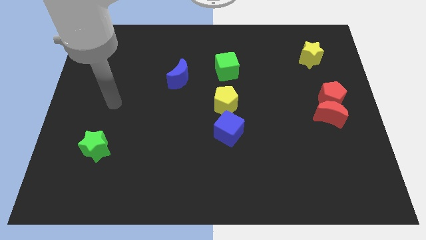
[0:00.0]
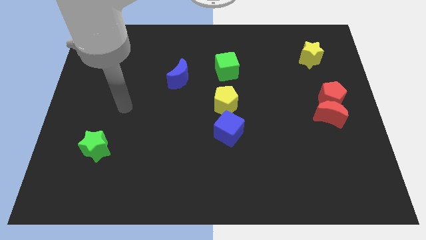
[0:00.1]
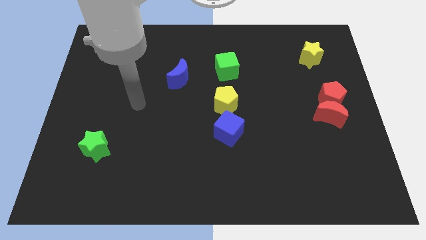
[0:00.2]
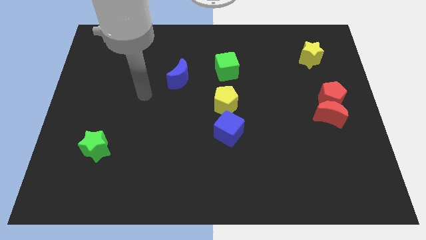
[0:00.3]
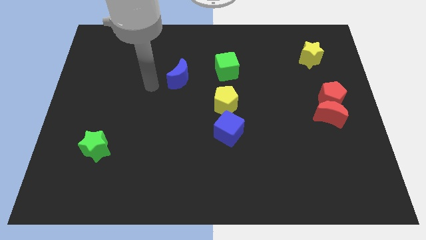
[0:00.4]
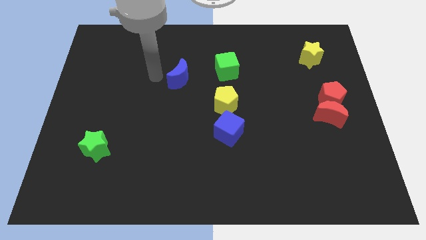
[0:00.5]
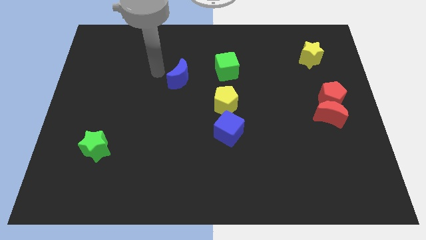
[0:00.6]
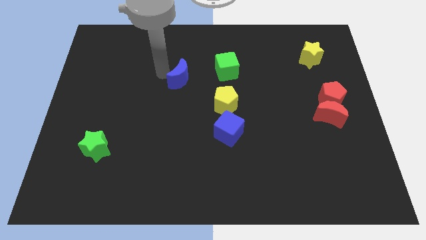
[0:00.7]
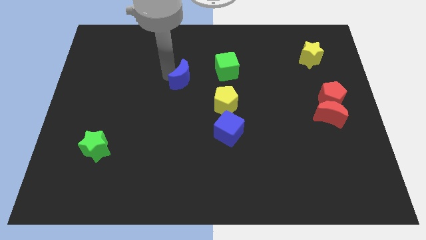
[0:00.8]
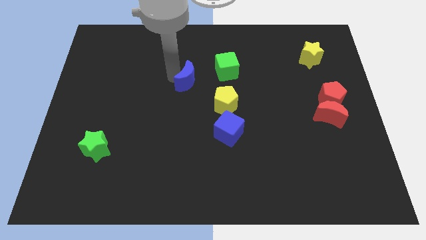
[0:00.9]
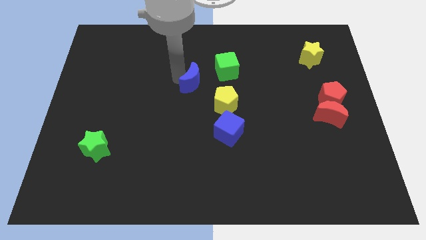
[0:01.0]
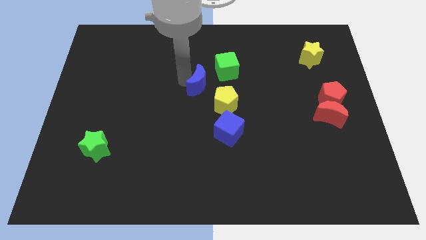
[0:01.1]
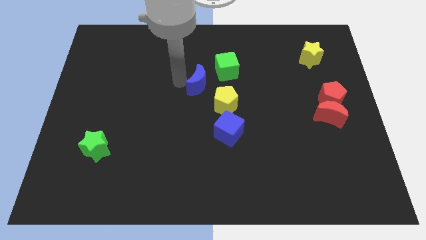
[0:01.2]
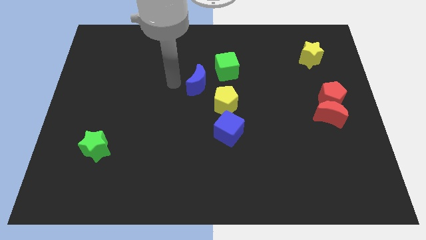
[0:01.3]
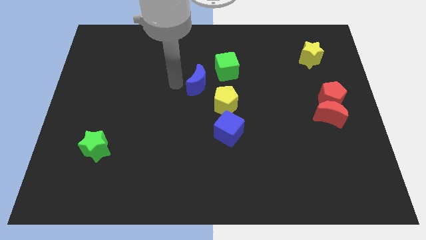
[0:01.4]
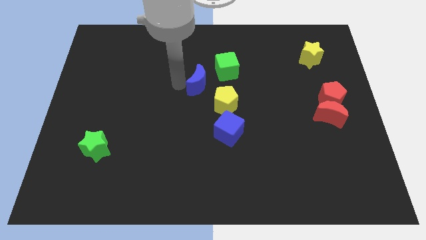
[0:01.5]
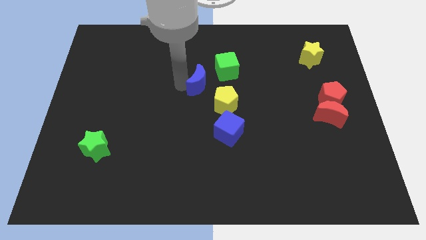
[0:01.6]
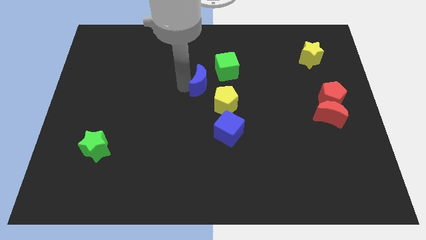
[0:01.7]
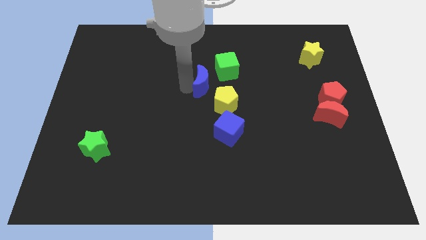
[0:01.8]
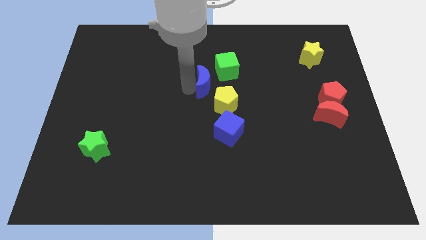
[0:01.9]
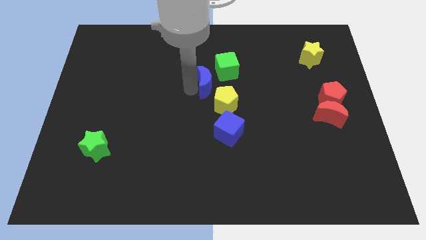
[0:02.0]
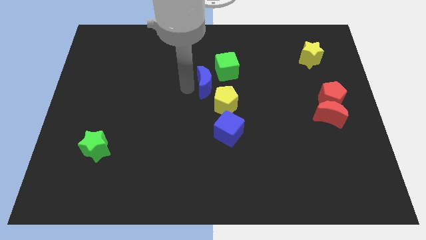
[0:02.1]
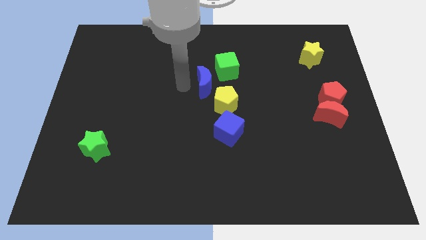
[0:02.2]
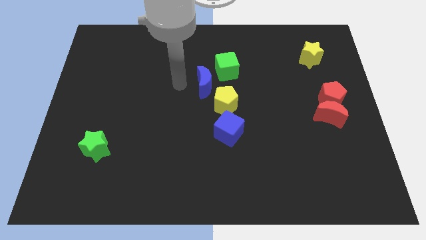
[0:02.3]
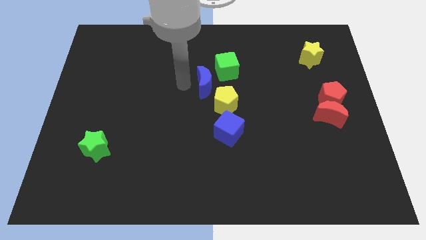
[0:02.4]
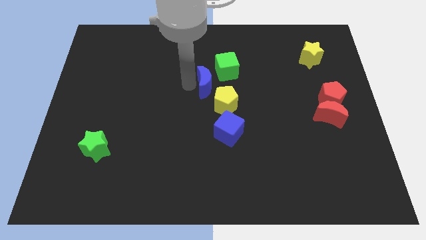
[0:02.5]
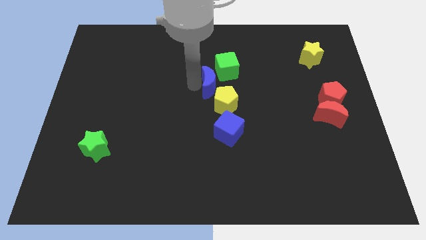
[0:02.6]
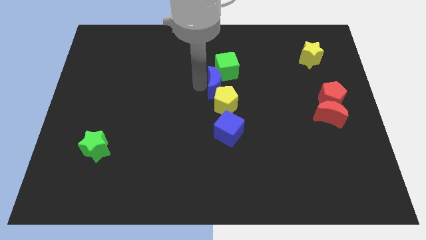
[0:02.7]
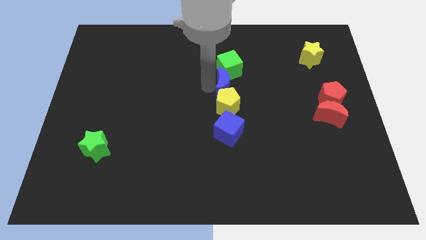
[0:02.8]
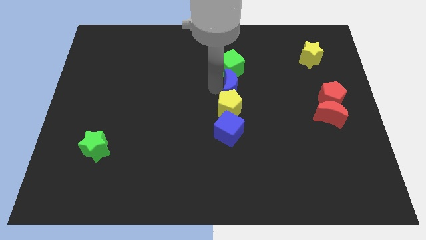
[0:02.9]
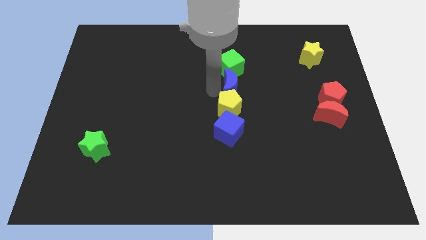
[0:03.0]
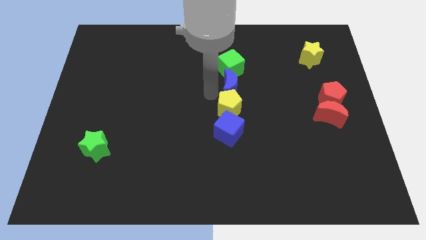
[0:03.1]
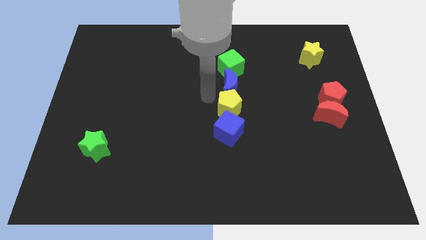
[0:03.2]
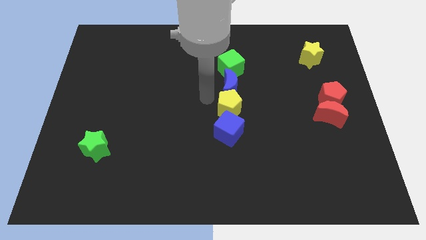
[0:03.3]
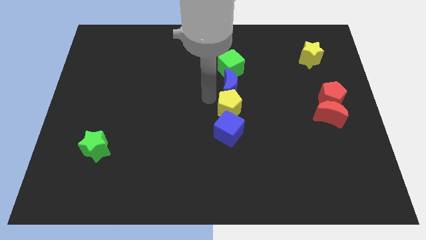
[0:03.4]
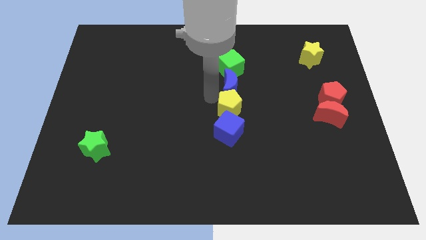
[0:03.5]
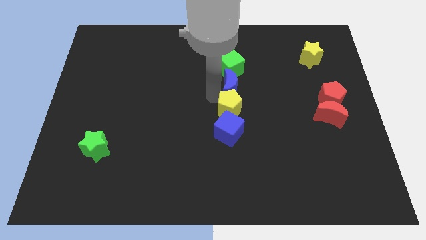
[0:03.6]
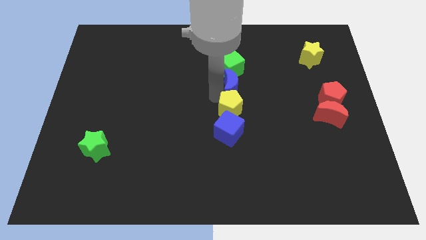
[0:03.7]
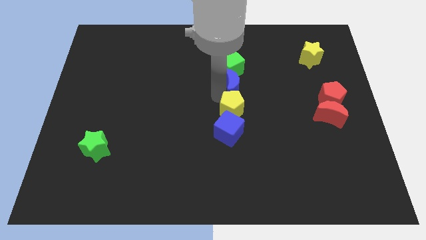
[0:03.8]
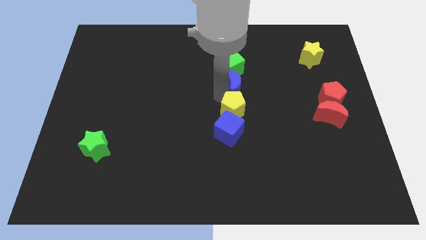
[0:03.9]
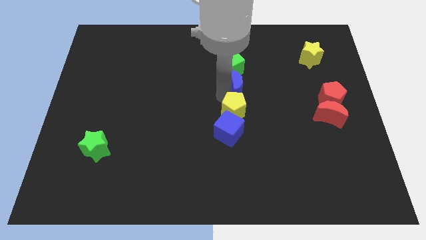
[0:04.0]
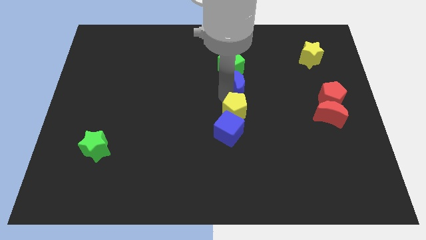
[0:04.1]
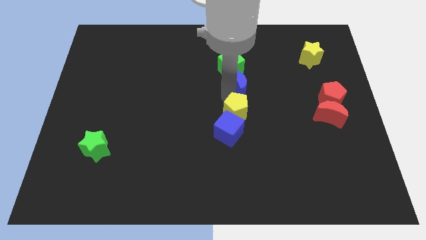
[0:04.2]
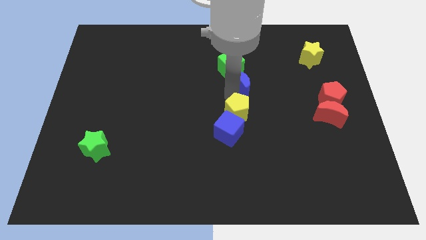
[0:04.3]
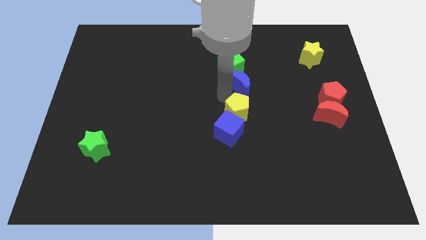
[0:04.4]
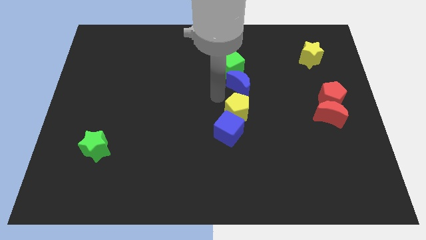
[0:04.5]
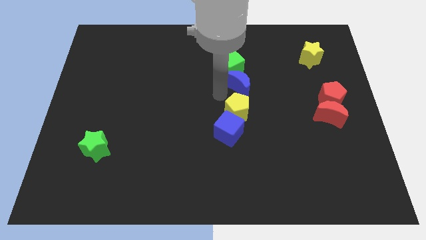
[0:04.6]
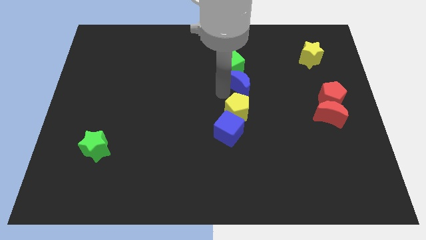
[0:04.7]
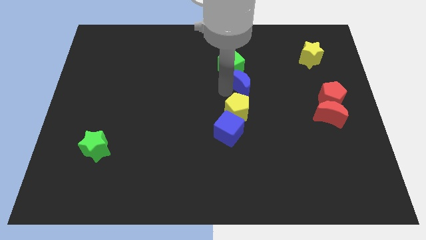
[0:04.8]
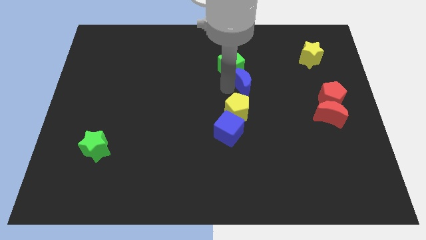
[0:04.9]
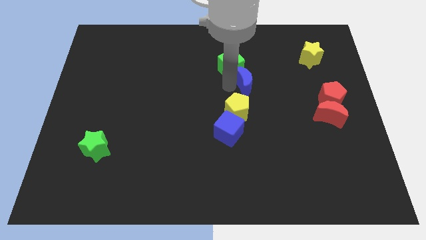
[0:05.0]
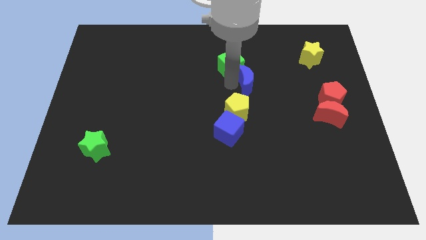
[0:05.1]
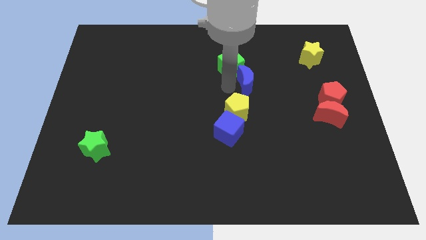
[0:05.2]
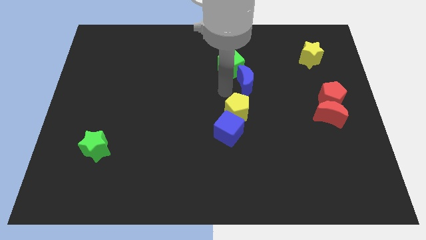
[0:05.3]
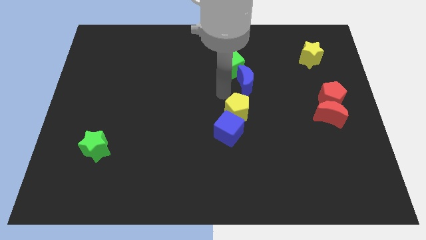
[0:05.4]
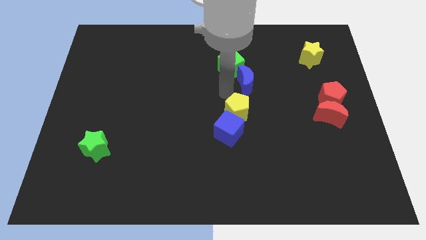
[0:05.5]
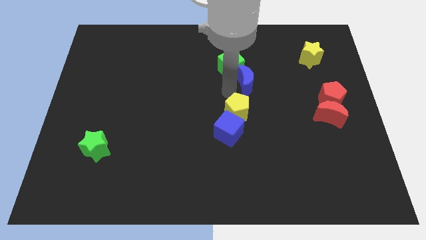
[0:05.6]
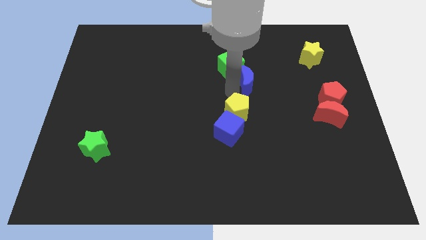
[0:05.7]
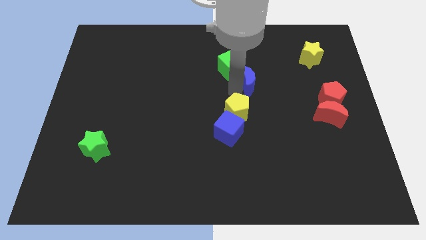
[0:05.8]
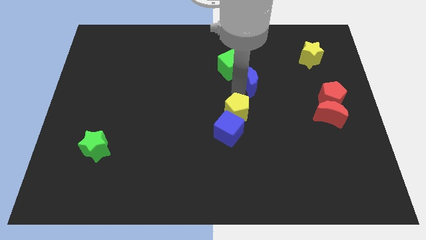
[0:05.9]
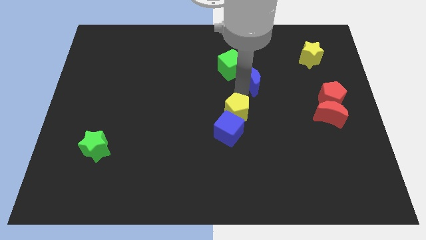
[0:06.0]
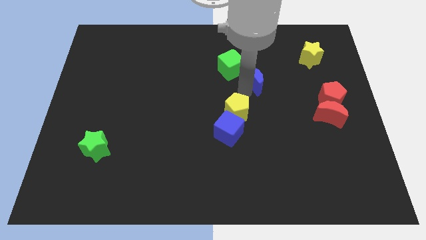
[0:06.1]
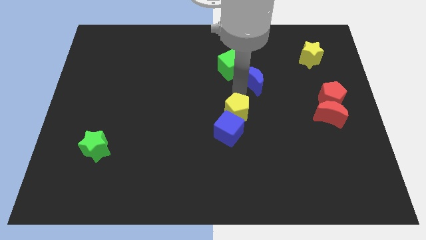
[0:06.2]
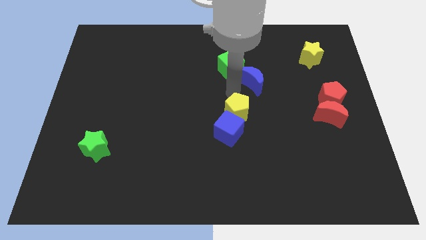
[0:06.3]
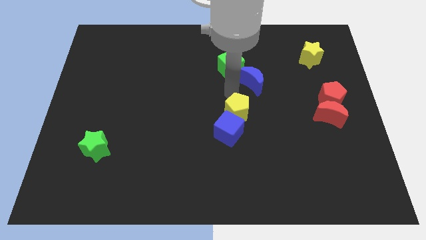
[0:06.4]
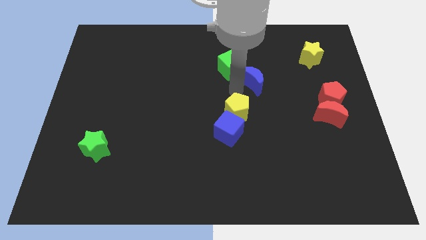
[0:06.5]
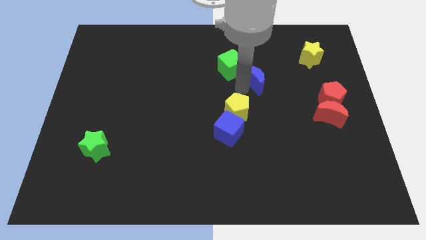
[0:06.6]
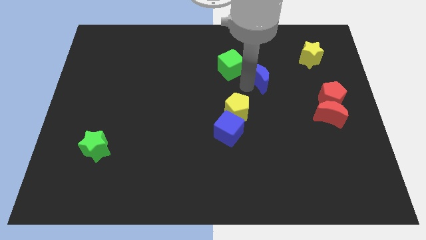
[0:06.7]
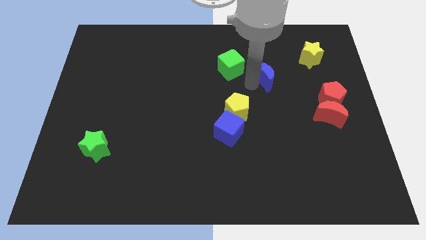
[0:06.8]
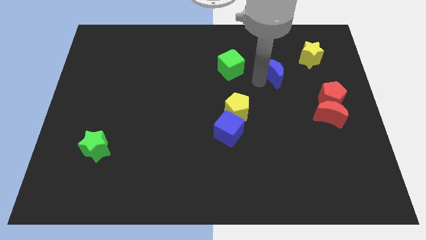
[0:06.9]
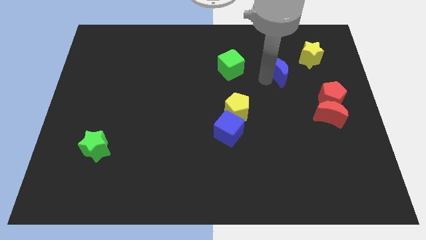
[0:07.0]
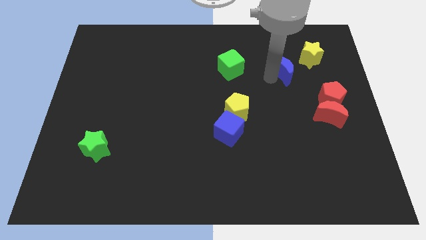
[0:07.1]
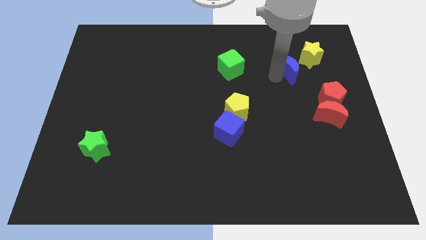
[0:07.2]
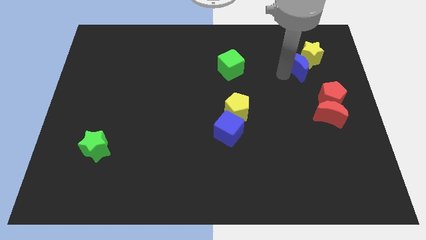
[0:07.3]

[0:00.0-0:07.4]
put the blue moon towards the yellow star

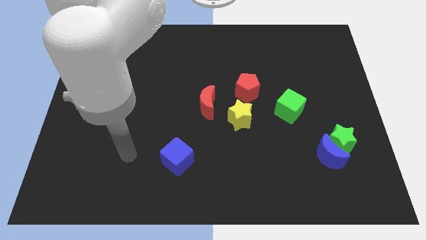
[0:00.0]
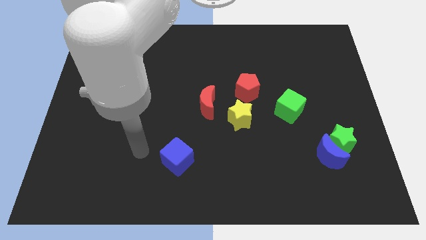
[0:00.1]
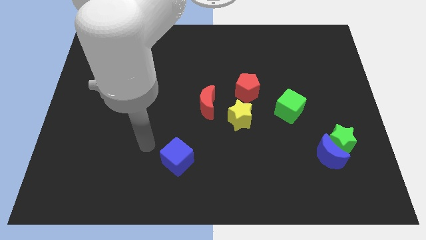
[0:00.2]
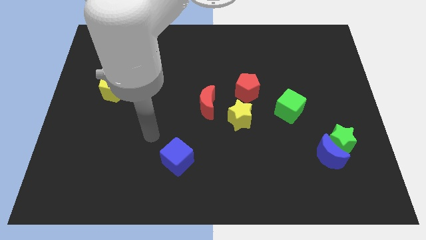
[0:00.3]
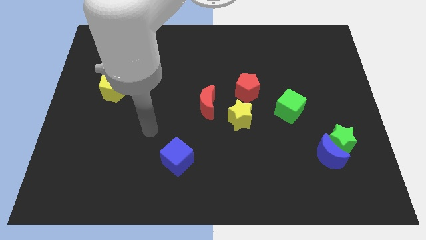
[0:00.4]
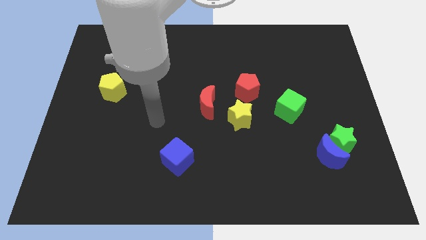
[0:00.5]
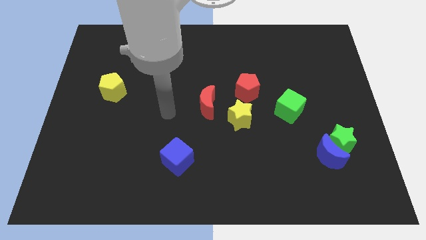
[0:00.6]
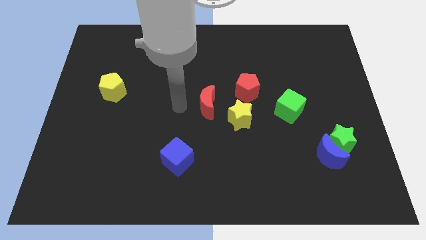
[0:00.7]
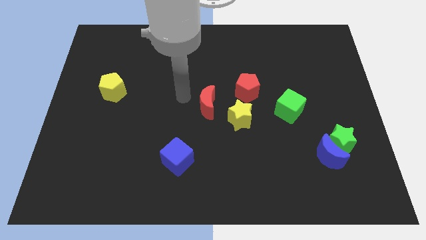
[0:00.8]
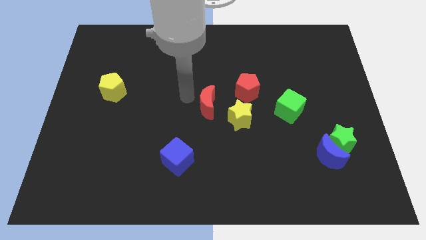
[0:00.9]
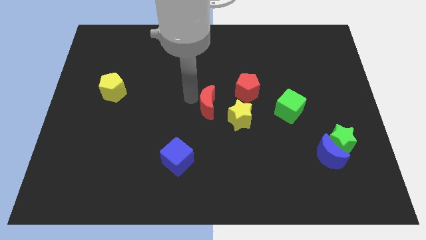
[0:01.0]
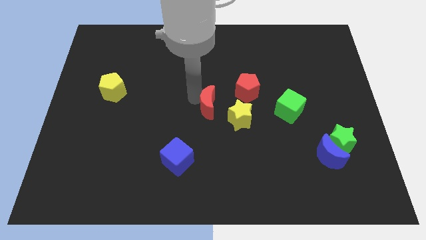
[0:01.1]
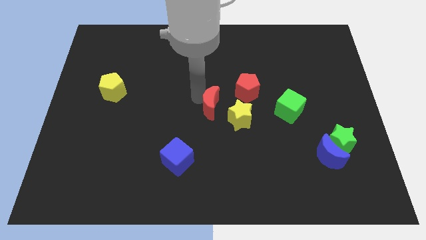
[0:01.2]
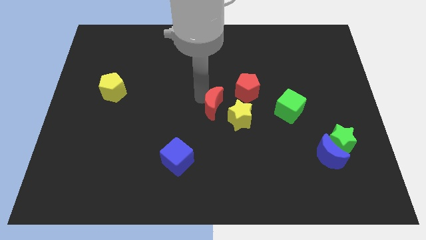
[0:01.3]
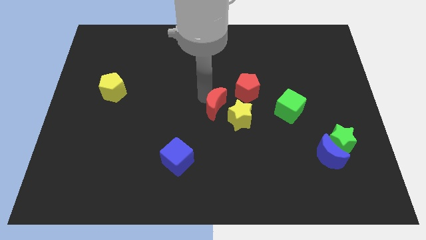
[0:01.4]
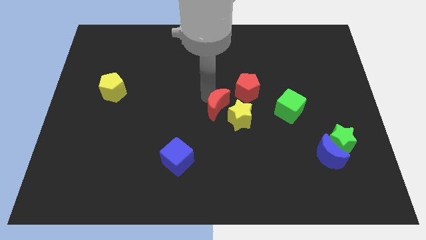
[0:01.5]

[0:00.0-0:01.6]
put the red moon towards the yellow star
